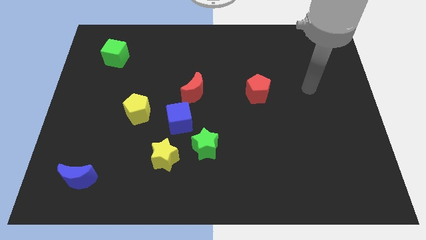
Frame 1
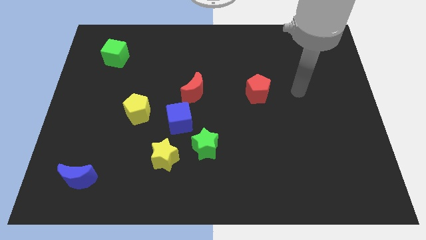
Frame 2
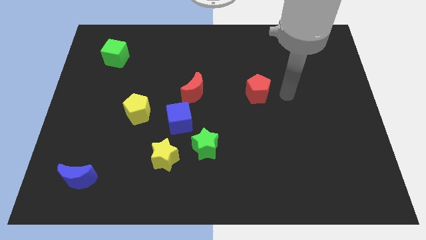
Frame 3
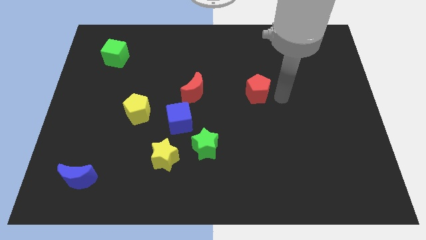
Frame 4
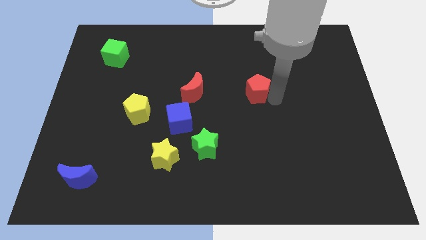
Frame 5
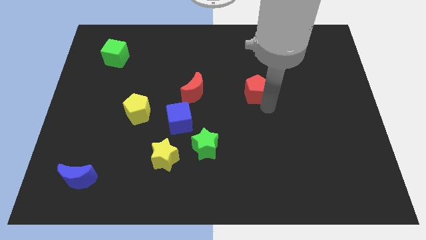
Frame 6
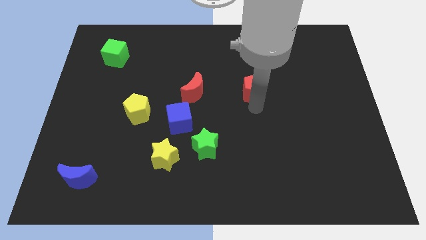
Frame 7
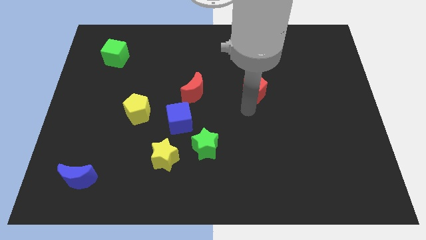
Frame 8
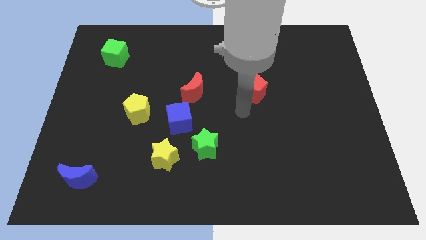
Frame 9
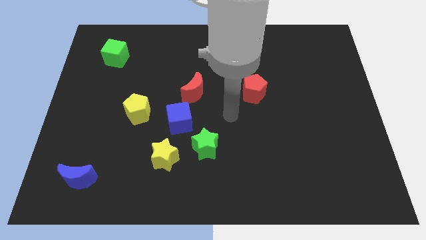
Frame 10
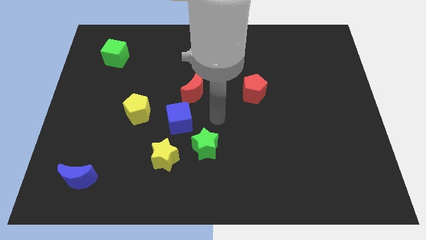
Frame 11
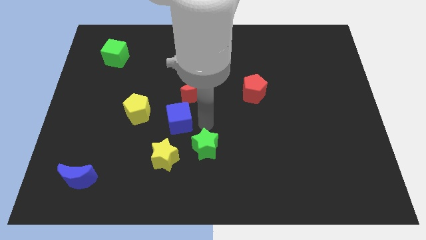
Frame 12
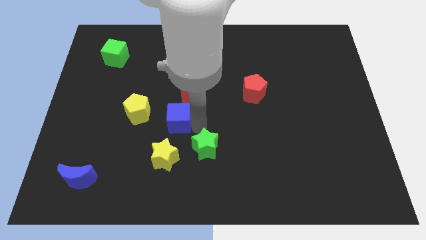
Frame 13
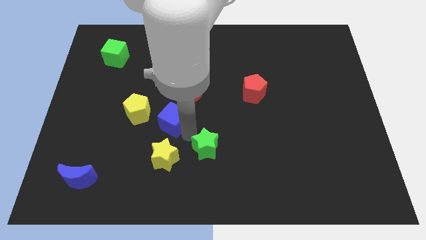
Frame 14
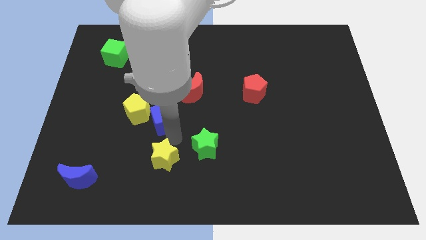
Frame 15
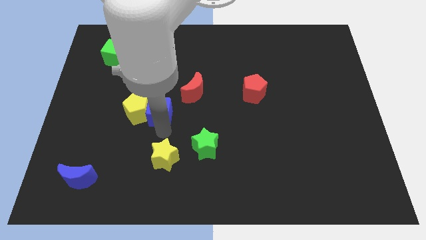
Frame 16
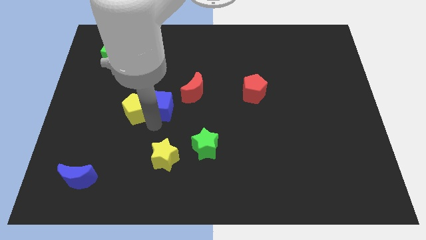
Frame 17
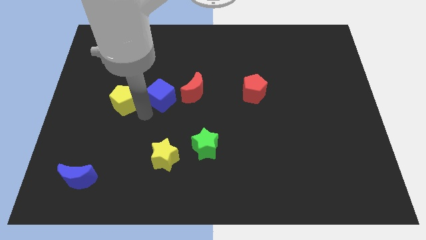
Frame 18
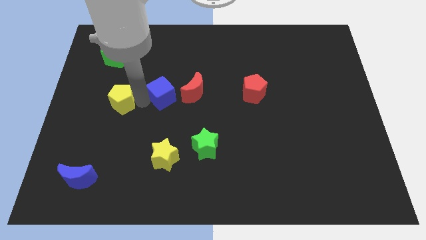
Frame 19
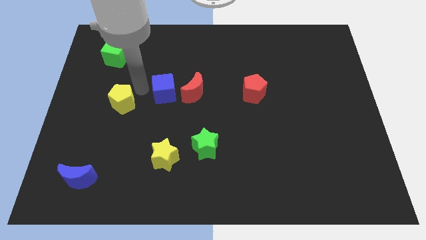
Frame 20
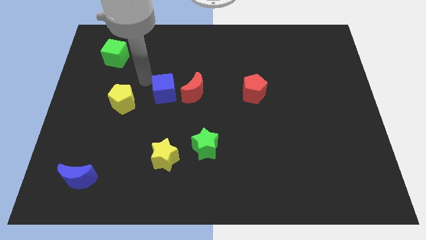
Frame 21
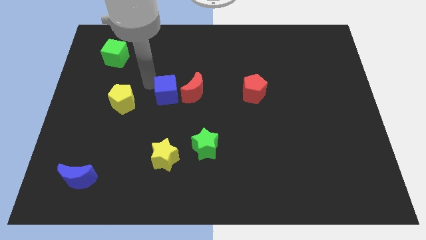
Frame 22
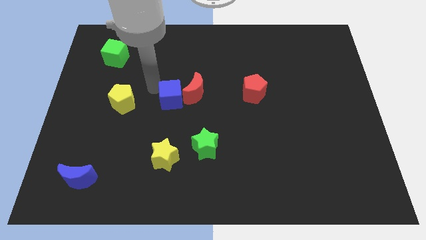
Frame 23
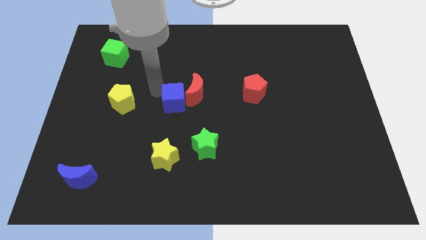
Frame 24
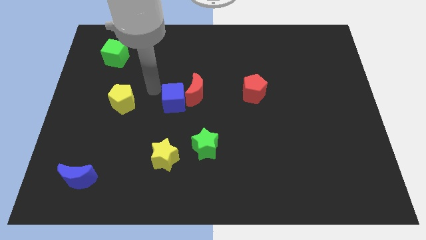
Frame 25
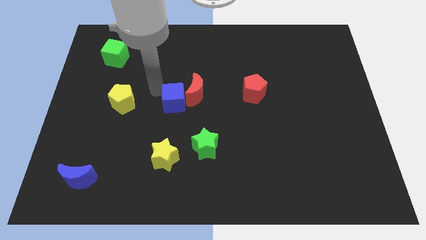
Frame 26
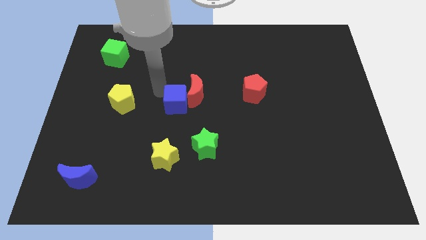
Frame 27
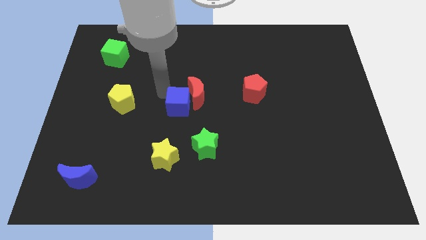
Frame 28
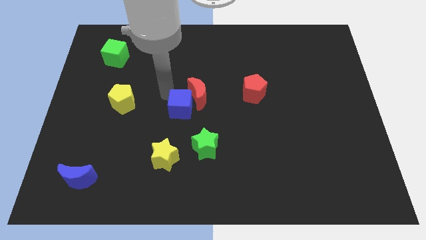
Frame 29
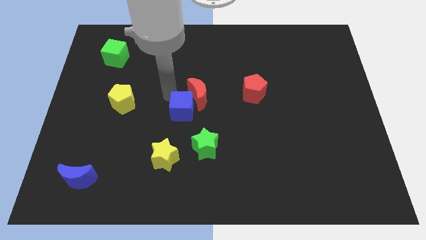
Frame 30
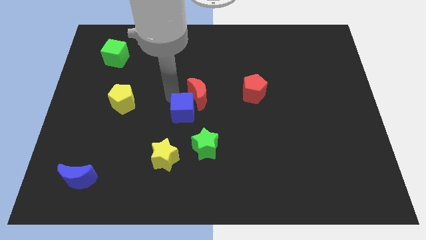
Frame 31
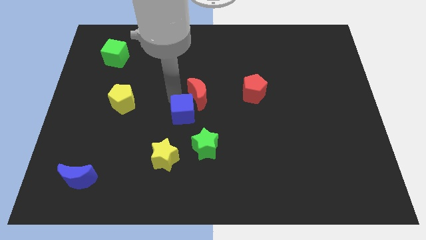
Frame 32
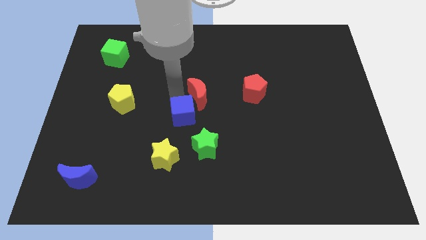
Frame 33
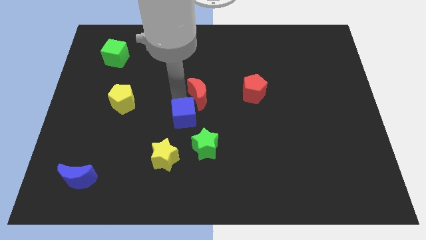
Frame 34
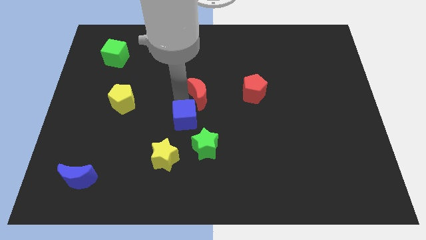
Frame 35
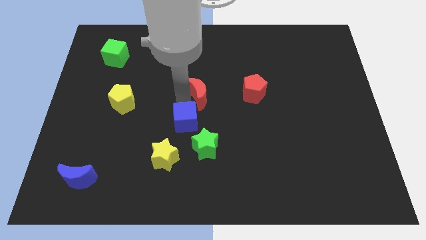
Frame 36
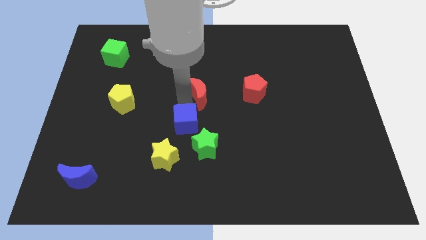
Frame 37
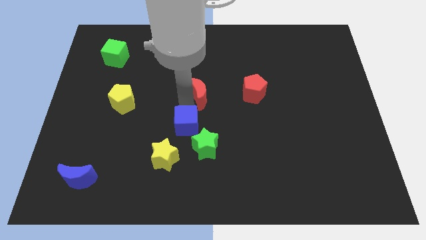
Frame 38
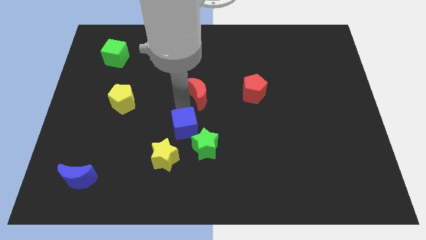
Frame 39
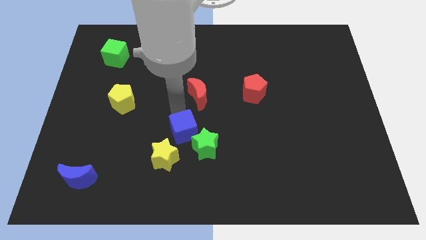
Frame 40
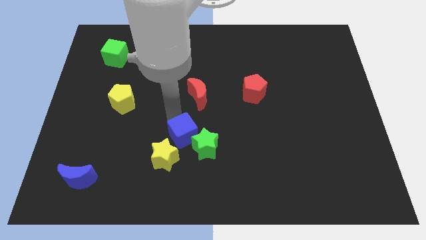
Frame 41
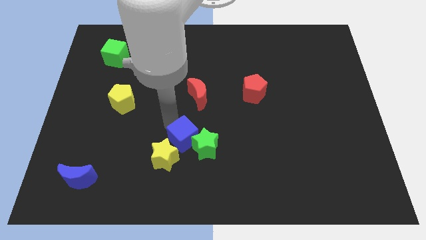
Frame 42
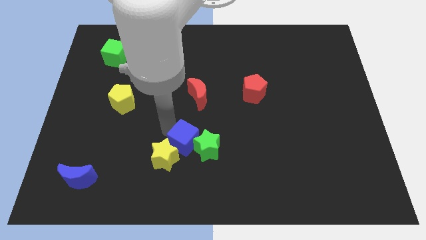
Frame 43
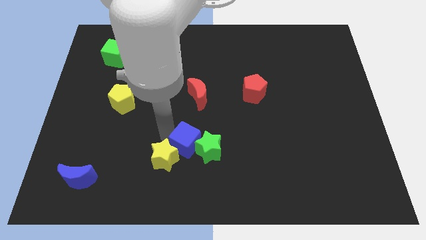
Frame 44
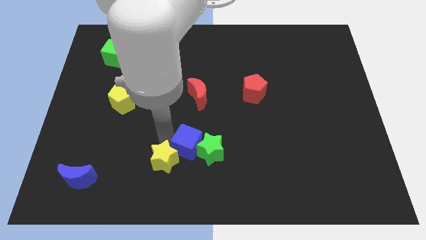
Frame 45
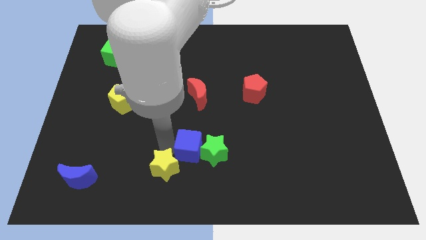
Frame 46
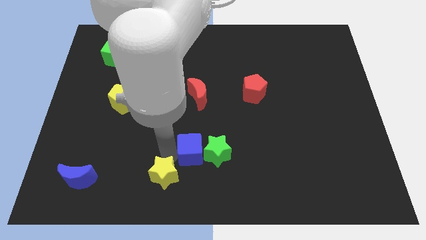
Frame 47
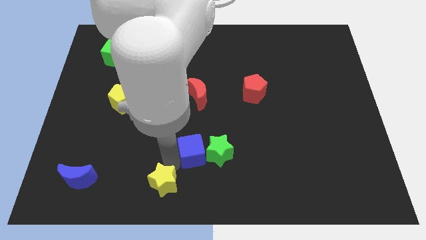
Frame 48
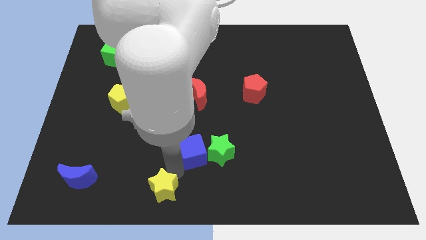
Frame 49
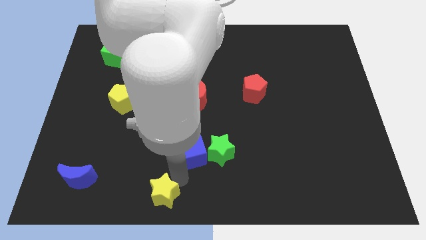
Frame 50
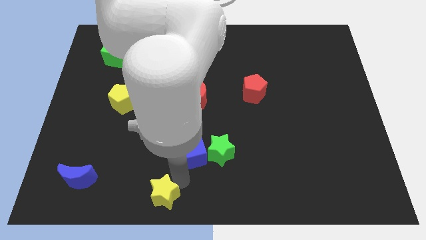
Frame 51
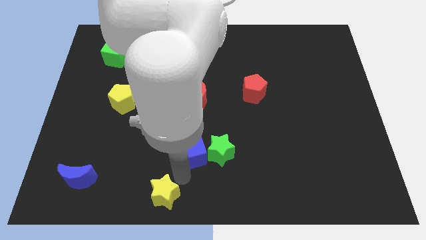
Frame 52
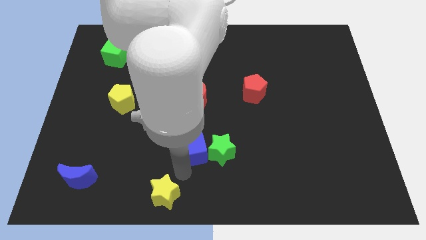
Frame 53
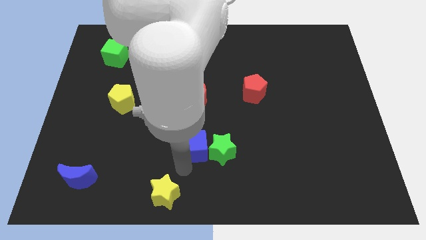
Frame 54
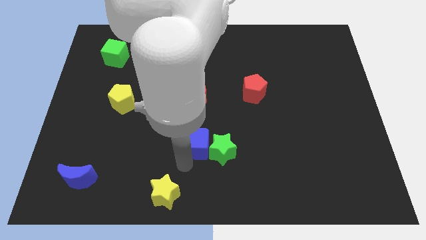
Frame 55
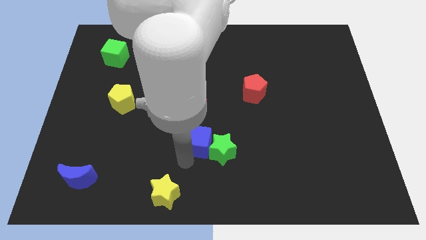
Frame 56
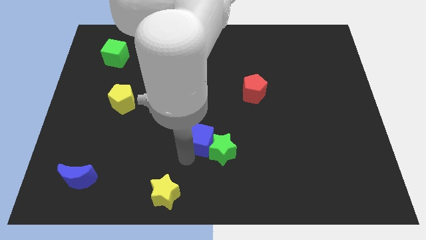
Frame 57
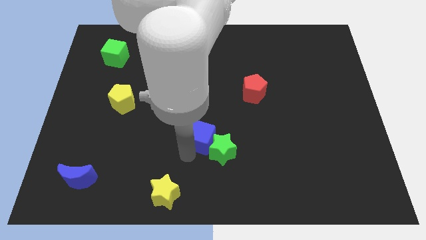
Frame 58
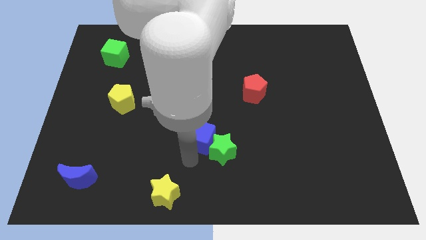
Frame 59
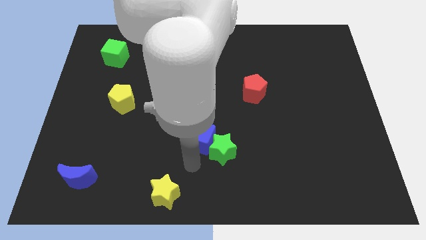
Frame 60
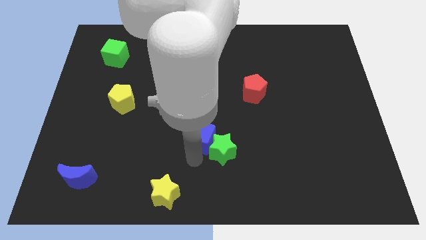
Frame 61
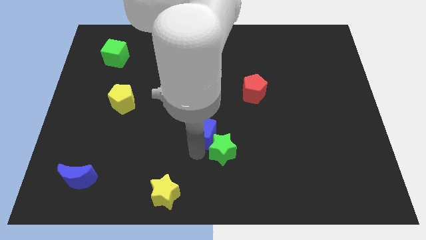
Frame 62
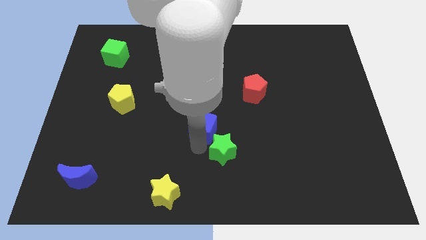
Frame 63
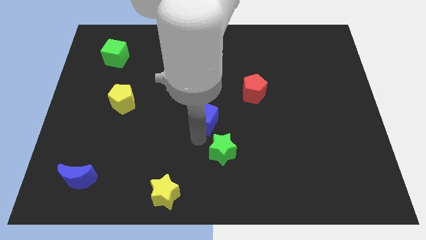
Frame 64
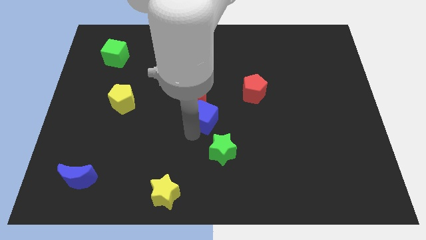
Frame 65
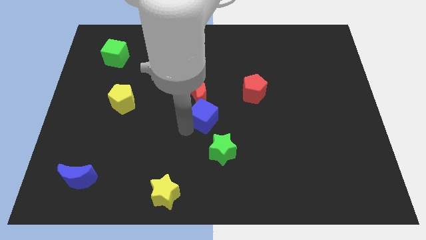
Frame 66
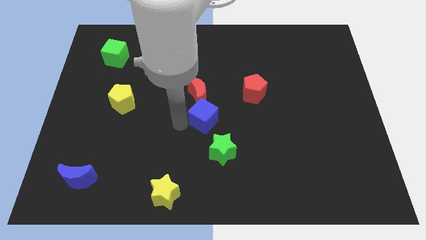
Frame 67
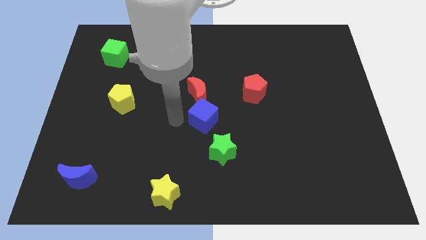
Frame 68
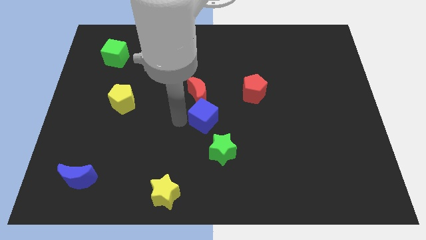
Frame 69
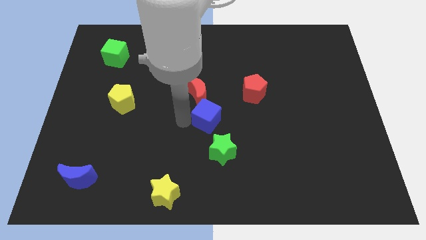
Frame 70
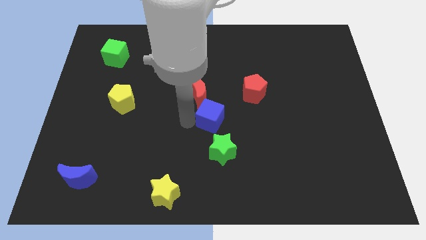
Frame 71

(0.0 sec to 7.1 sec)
slightly push the blue cube to the right

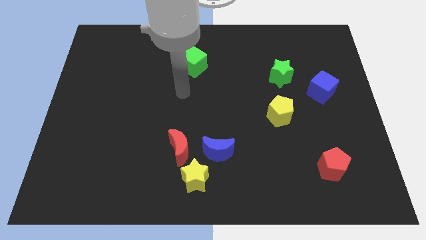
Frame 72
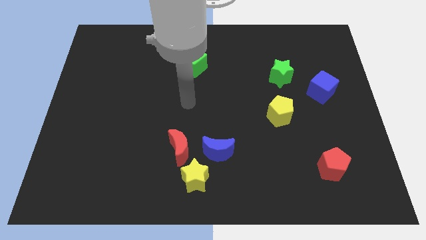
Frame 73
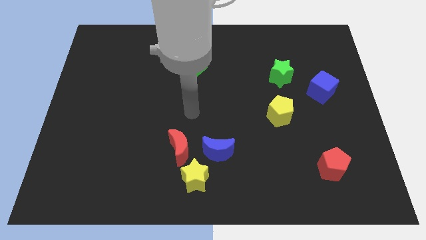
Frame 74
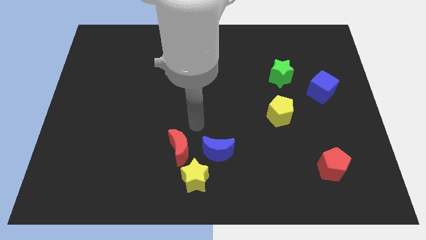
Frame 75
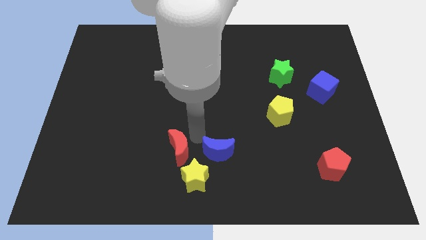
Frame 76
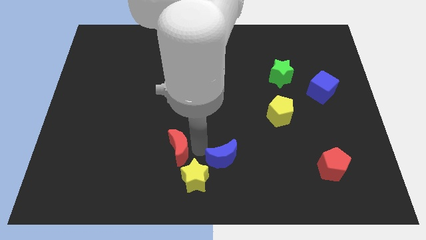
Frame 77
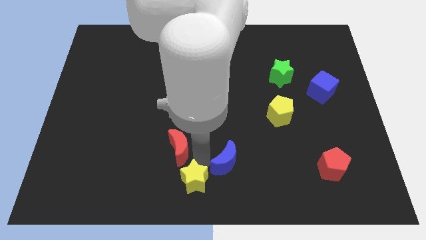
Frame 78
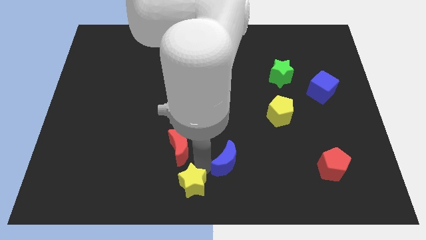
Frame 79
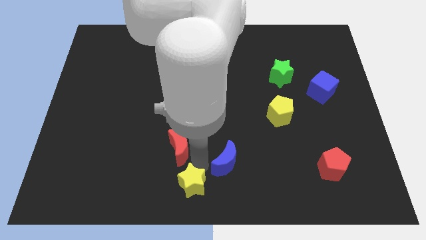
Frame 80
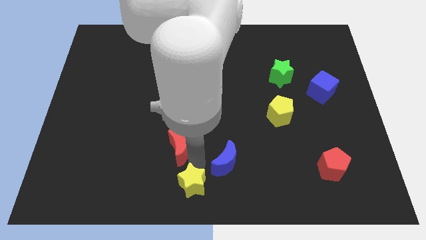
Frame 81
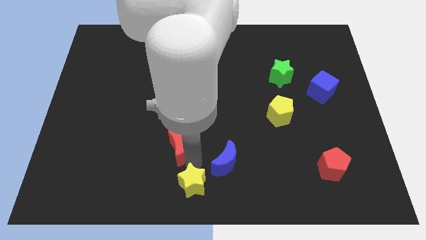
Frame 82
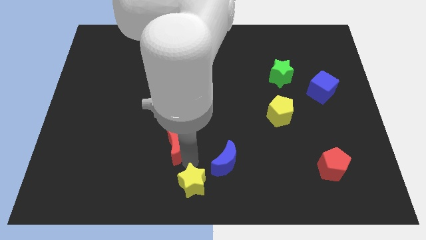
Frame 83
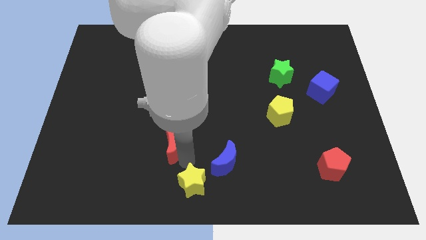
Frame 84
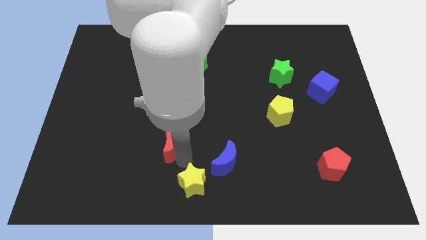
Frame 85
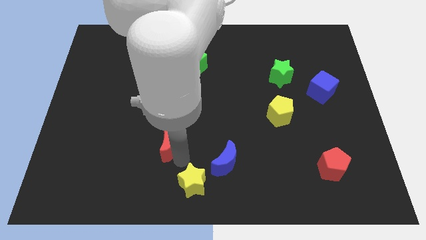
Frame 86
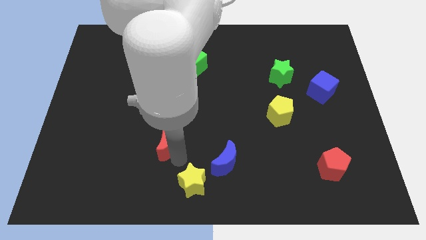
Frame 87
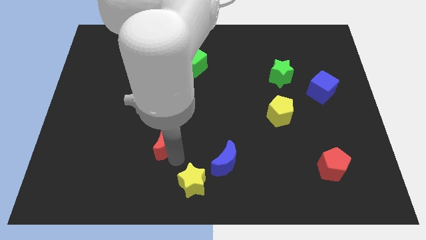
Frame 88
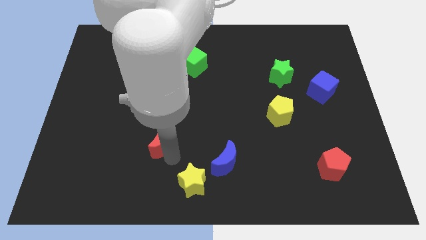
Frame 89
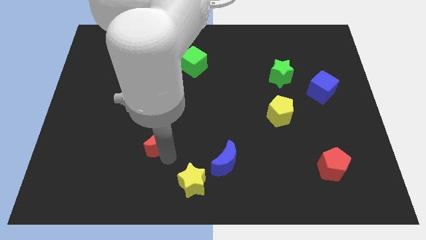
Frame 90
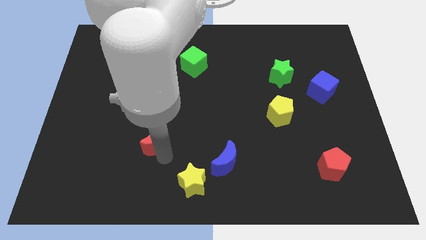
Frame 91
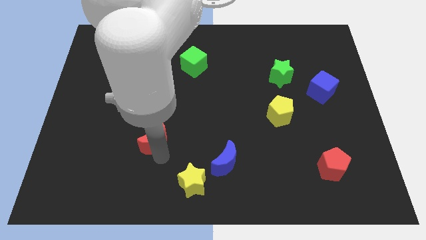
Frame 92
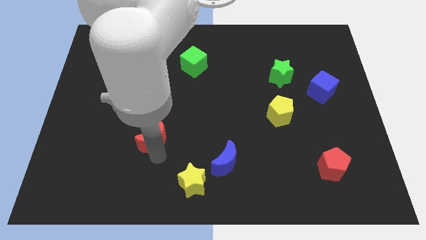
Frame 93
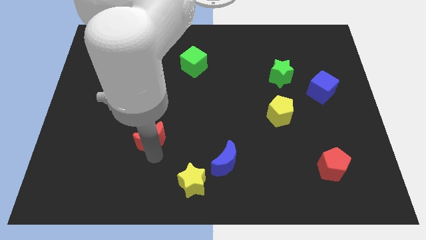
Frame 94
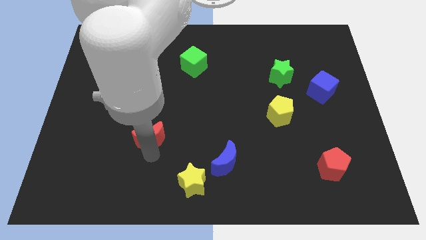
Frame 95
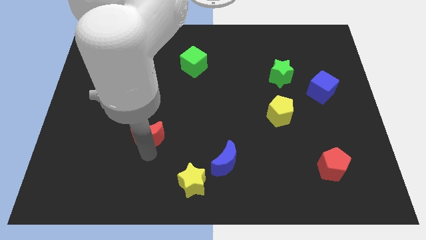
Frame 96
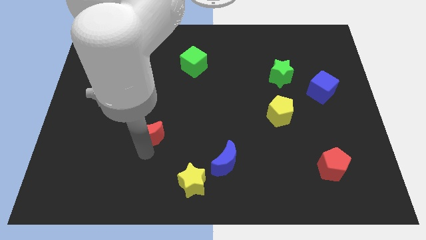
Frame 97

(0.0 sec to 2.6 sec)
slightly slide the red moon upwards and then to the left
